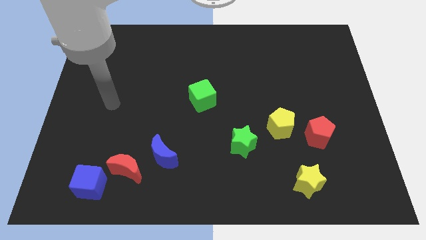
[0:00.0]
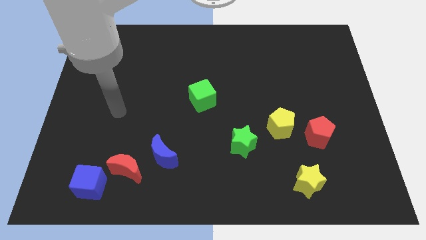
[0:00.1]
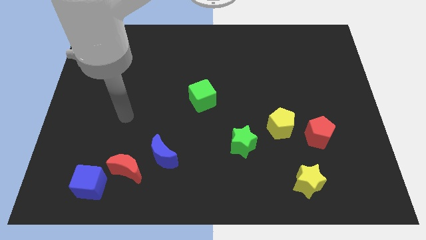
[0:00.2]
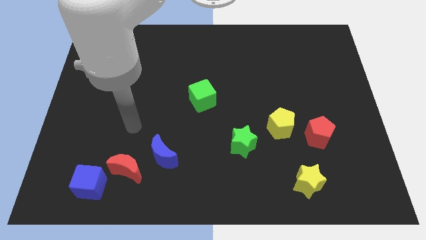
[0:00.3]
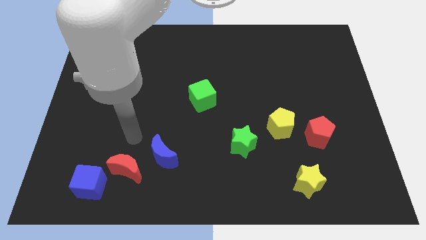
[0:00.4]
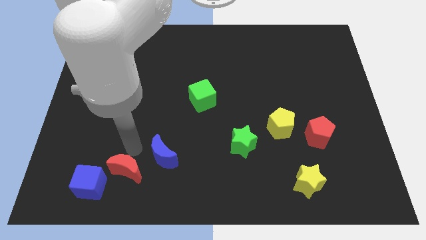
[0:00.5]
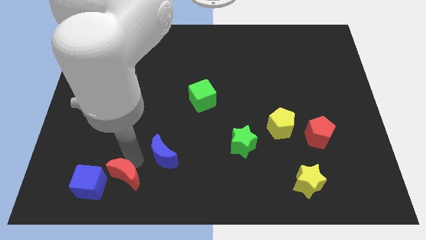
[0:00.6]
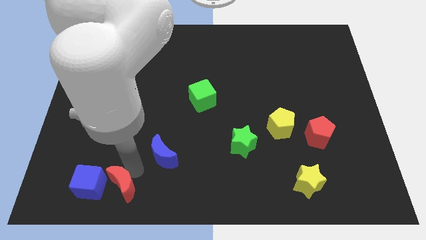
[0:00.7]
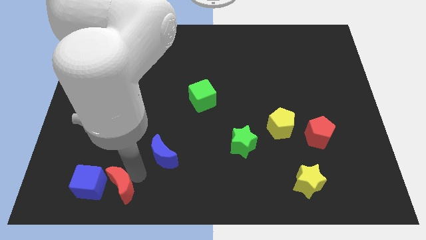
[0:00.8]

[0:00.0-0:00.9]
move the blue moon away from the red moon

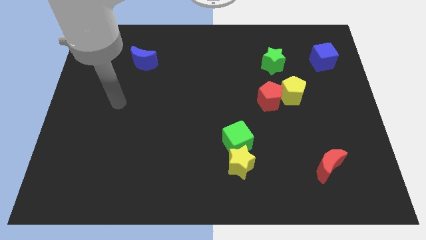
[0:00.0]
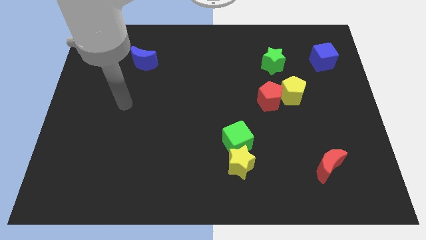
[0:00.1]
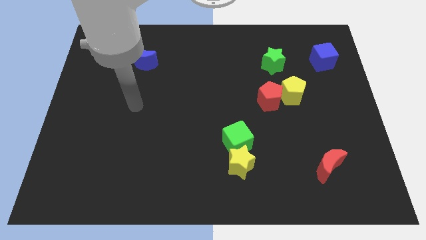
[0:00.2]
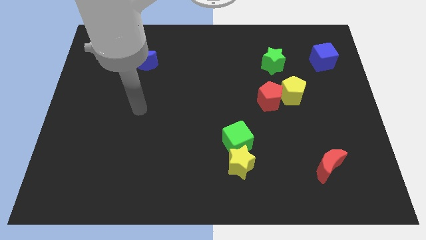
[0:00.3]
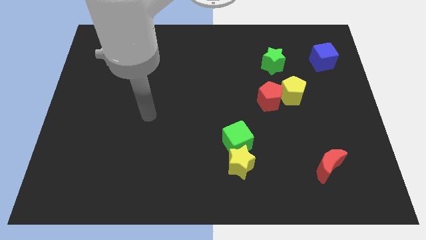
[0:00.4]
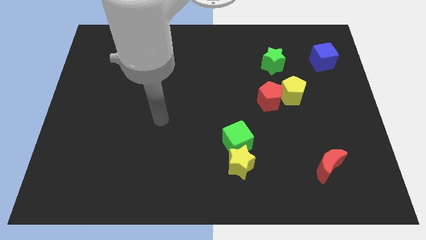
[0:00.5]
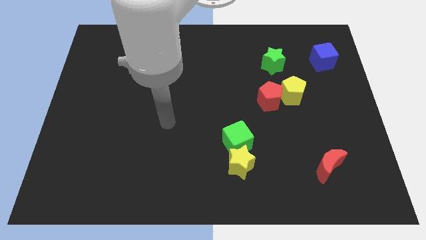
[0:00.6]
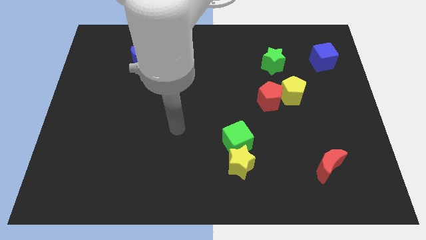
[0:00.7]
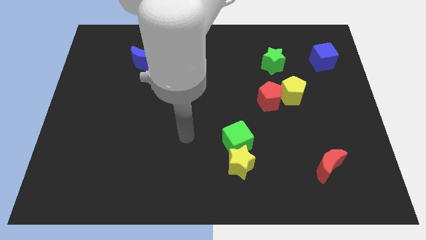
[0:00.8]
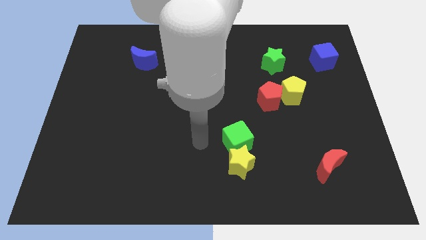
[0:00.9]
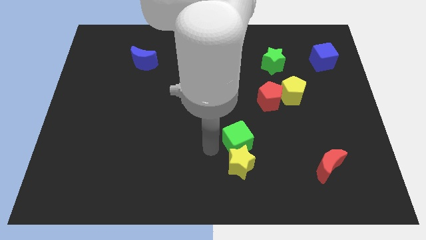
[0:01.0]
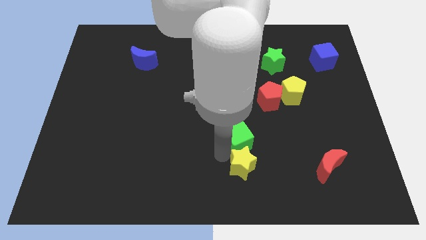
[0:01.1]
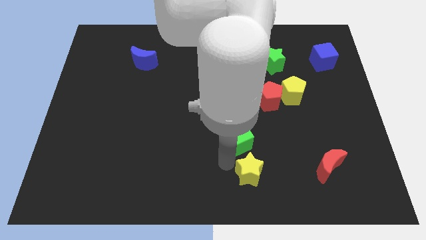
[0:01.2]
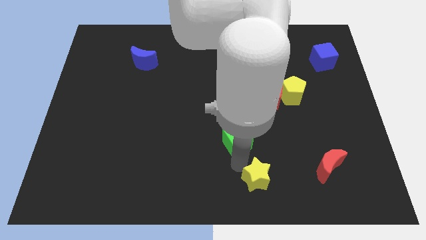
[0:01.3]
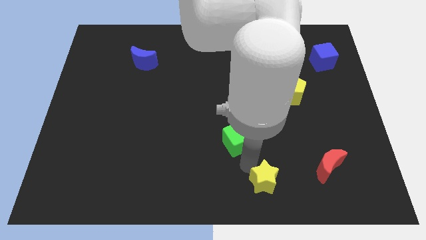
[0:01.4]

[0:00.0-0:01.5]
pull the green cube apart from the yellow star

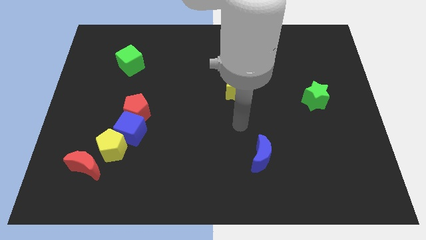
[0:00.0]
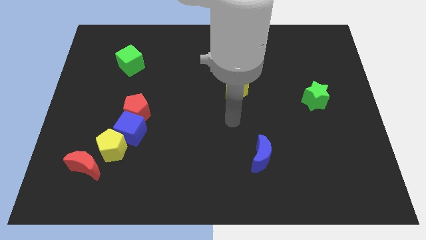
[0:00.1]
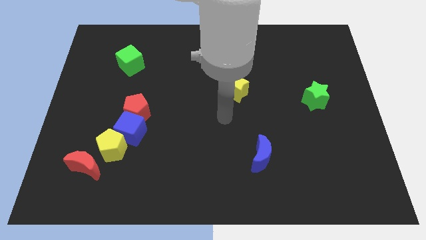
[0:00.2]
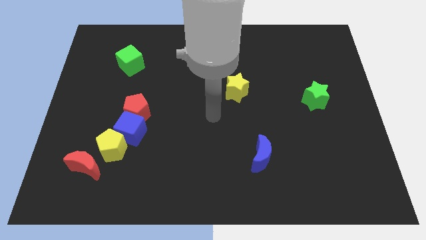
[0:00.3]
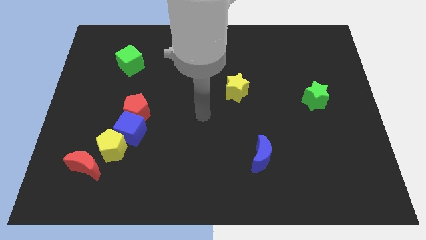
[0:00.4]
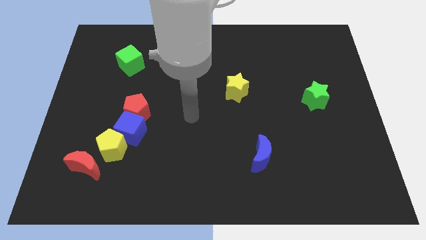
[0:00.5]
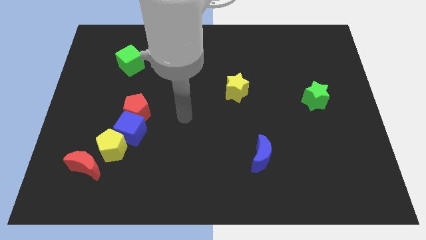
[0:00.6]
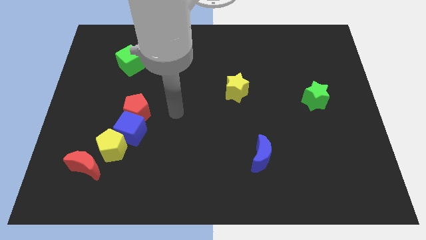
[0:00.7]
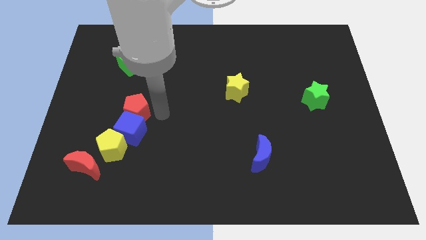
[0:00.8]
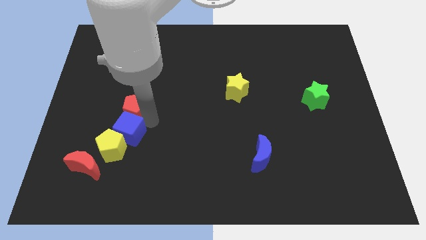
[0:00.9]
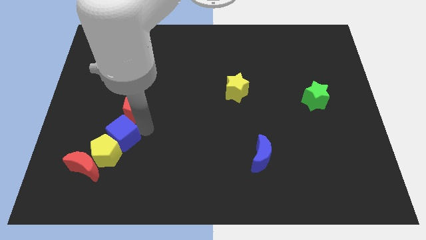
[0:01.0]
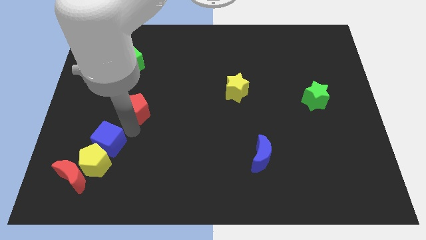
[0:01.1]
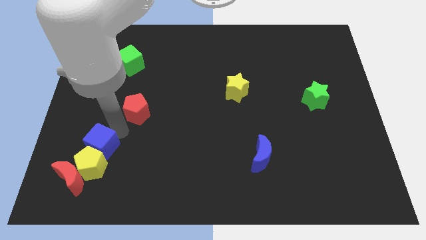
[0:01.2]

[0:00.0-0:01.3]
pull the red pentagon apart from the blue cube

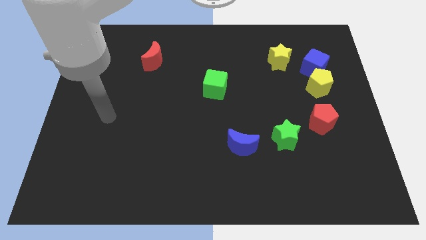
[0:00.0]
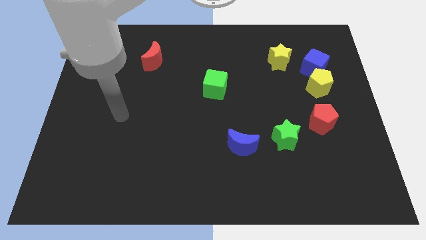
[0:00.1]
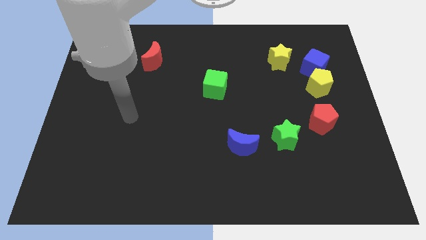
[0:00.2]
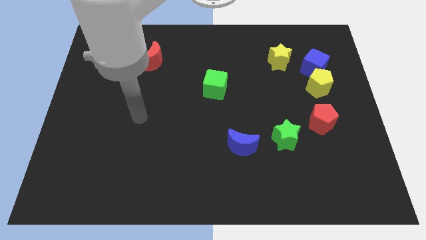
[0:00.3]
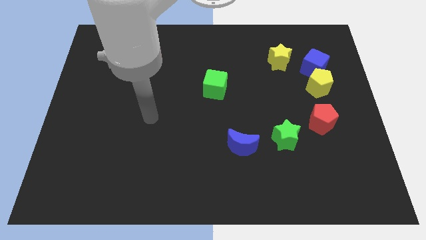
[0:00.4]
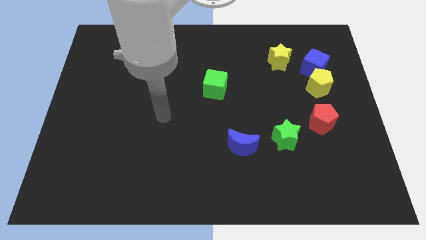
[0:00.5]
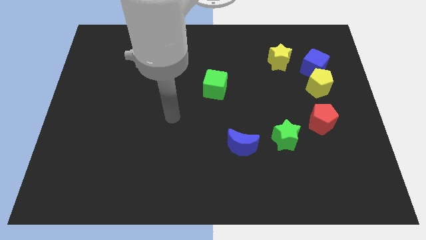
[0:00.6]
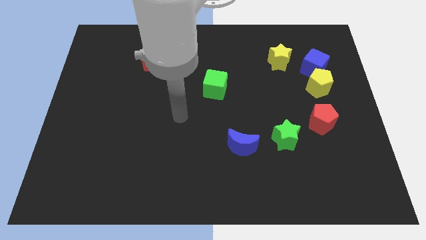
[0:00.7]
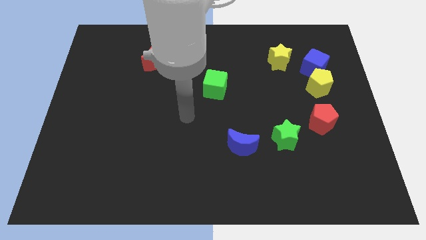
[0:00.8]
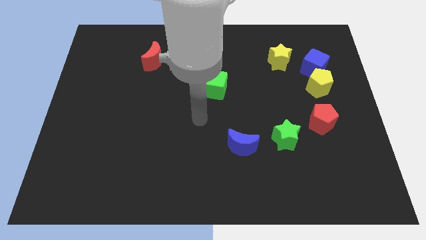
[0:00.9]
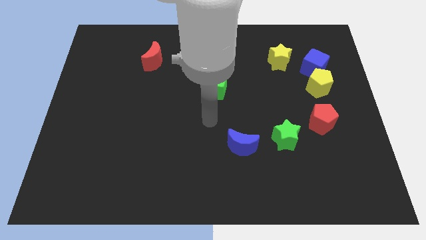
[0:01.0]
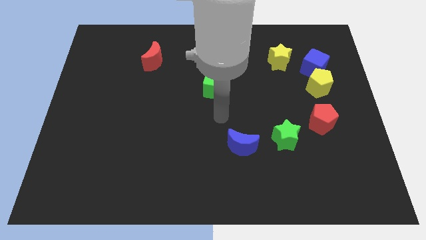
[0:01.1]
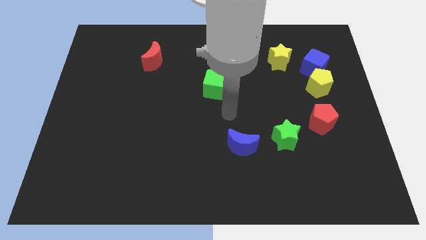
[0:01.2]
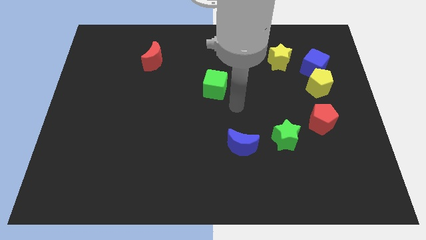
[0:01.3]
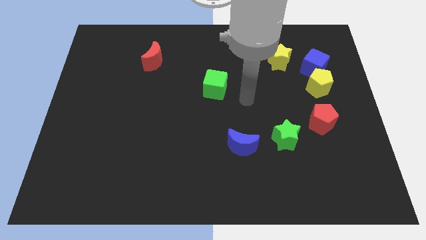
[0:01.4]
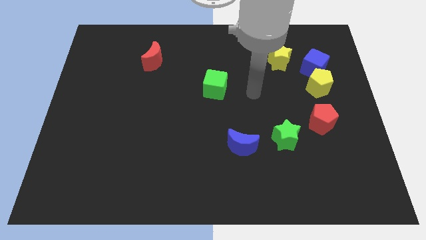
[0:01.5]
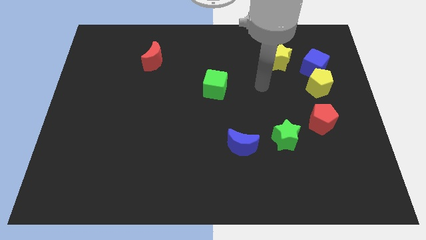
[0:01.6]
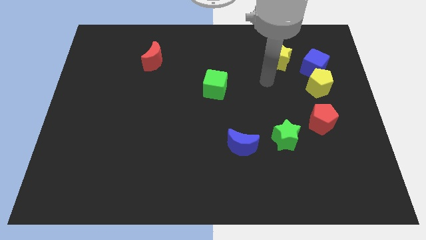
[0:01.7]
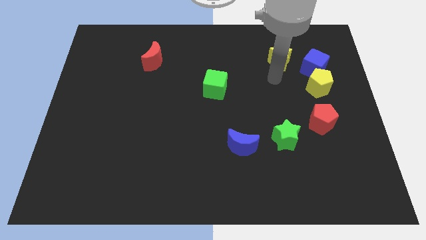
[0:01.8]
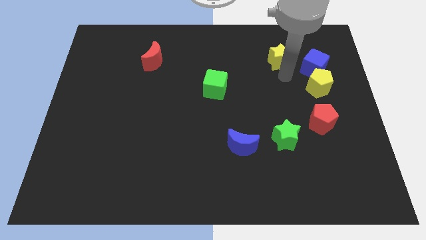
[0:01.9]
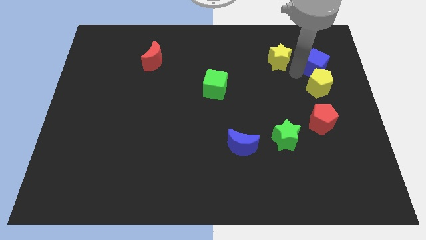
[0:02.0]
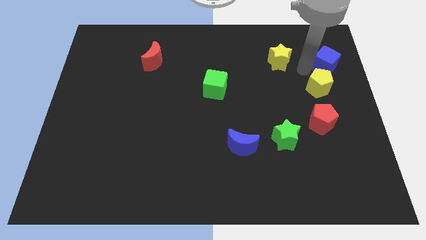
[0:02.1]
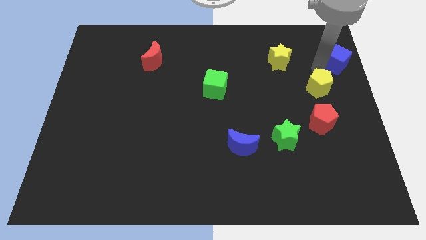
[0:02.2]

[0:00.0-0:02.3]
separate the yellow pentagon from the blue cube

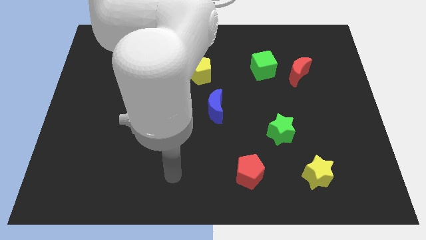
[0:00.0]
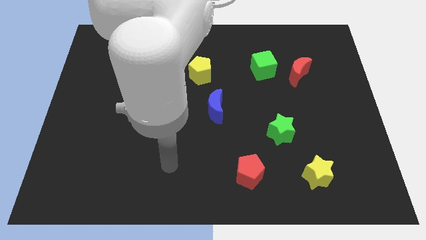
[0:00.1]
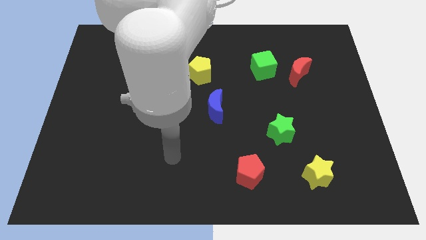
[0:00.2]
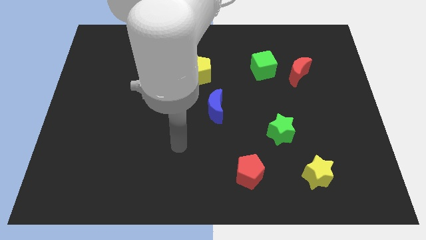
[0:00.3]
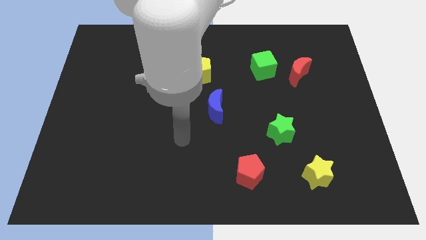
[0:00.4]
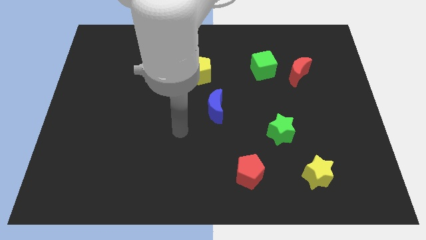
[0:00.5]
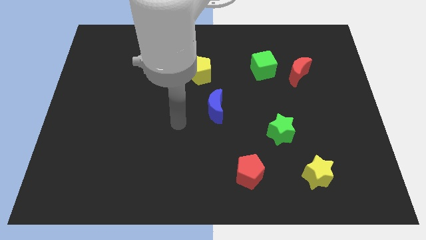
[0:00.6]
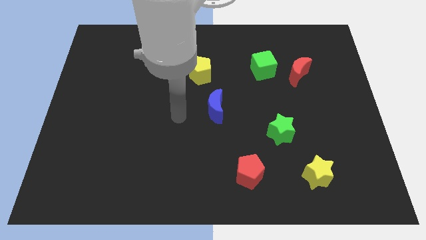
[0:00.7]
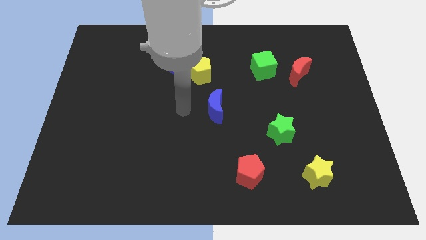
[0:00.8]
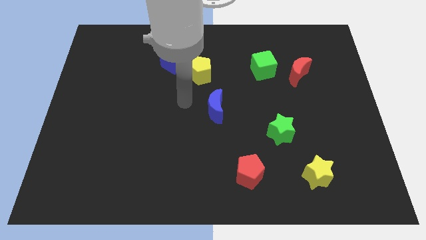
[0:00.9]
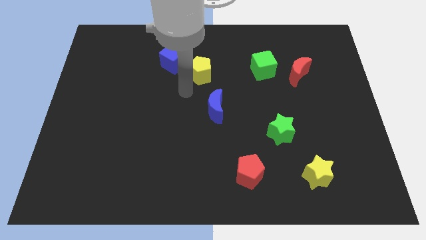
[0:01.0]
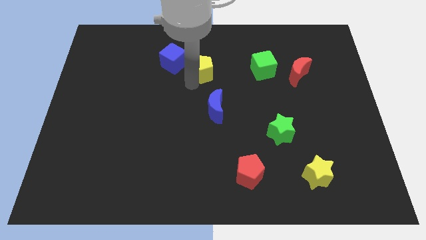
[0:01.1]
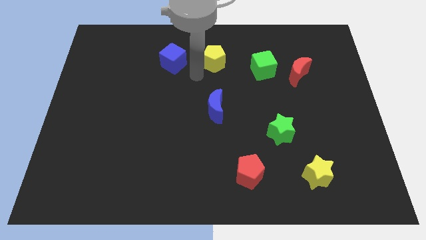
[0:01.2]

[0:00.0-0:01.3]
move the blue cube away from the yellow pentagon

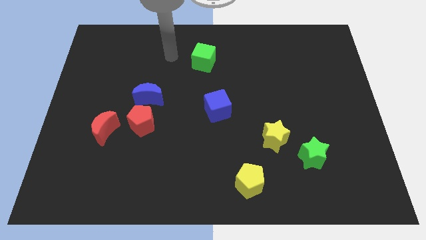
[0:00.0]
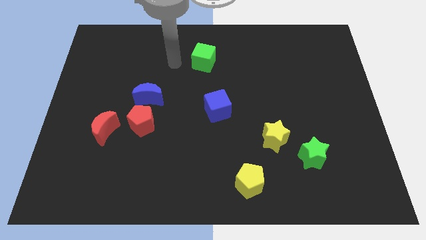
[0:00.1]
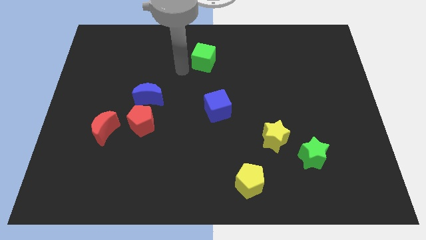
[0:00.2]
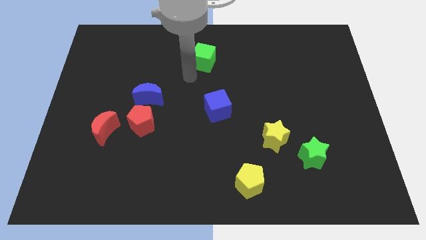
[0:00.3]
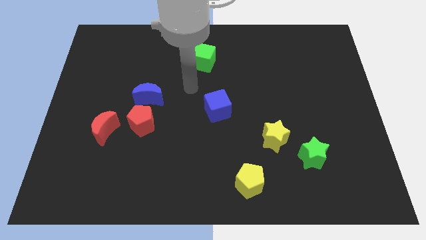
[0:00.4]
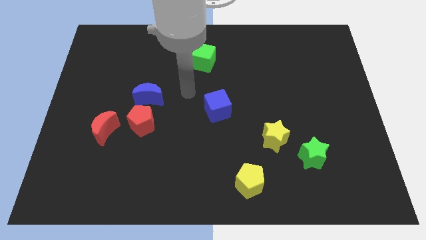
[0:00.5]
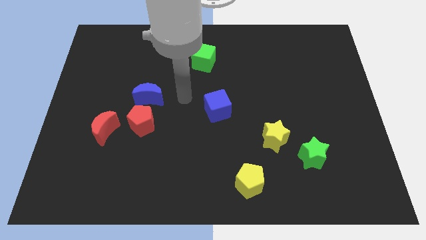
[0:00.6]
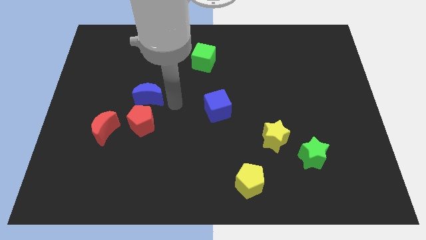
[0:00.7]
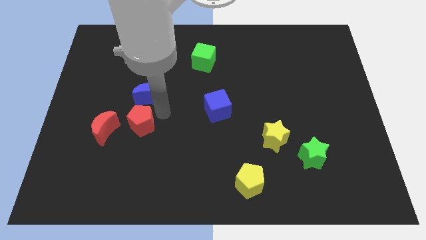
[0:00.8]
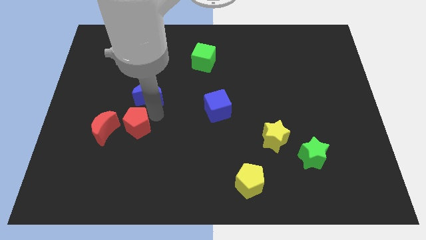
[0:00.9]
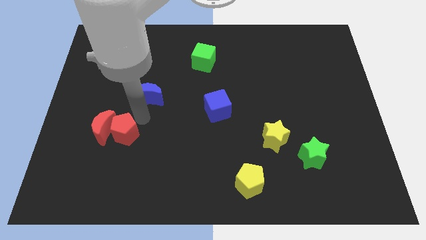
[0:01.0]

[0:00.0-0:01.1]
separate the blue moon from the red pentagon

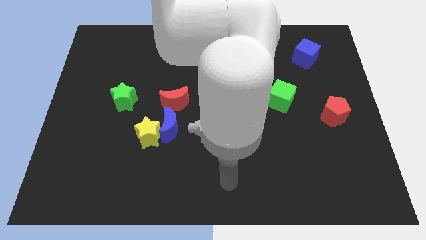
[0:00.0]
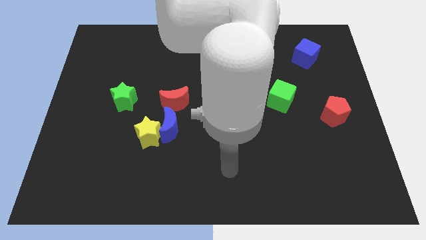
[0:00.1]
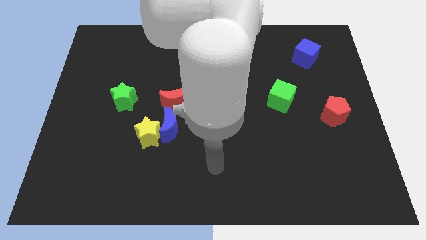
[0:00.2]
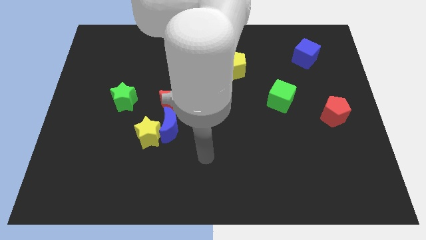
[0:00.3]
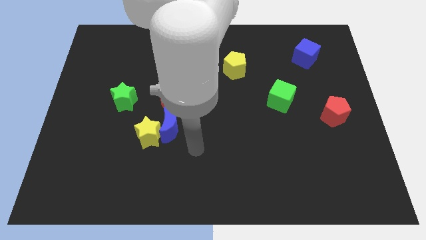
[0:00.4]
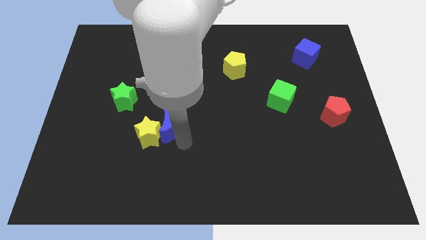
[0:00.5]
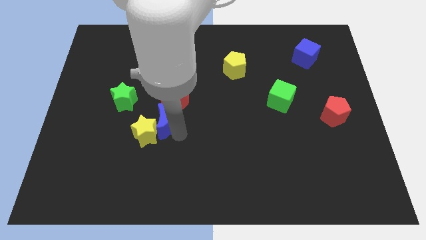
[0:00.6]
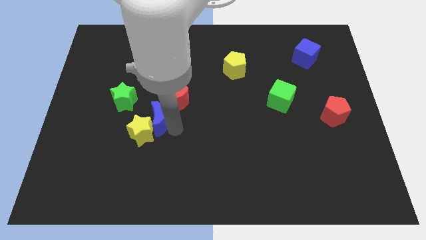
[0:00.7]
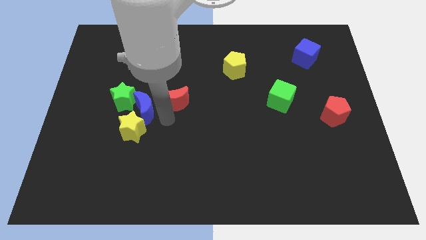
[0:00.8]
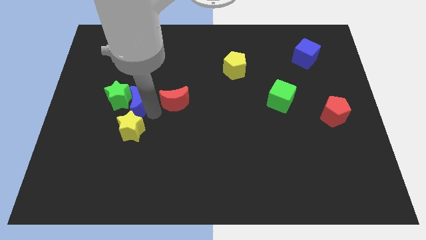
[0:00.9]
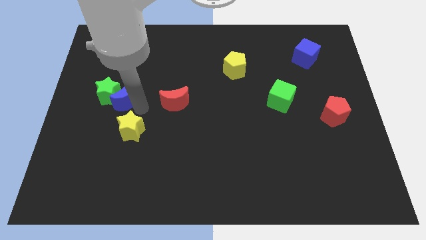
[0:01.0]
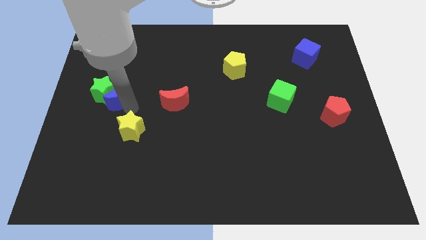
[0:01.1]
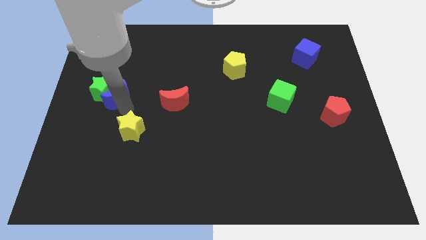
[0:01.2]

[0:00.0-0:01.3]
separate the yellow star from the blue moon
